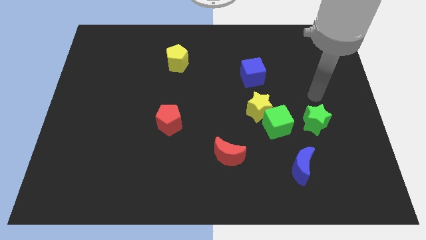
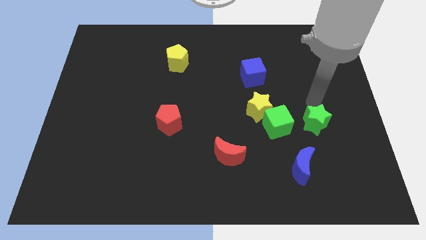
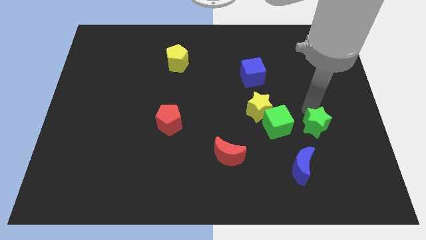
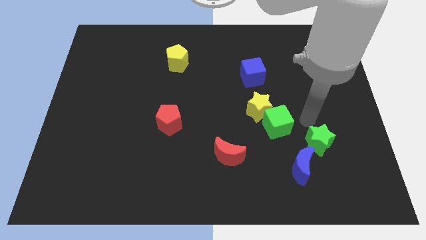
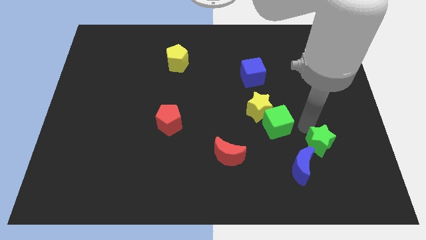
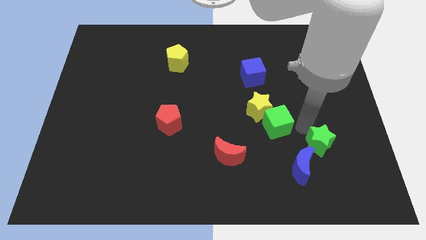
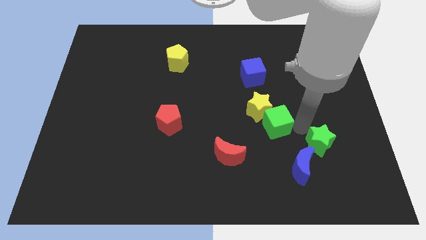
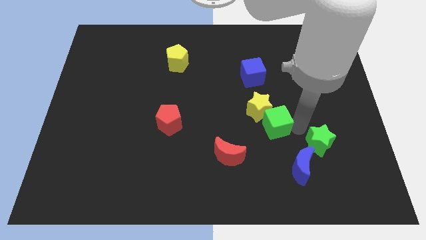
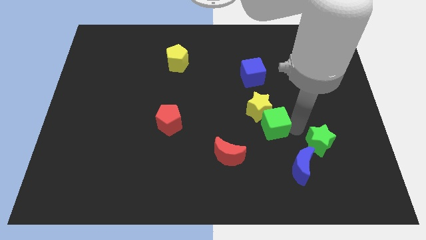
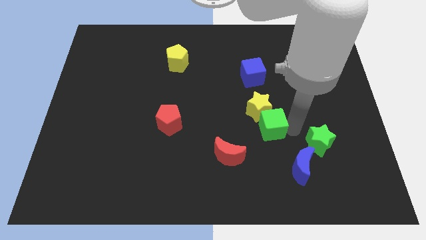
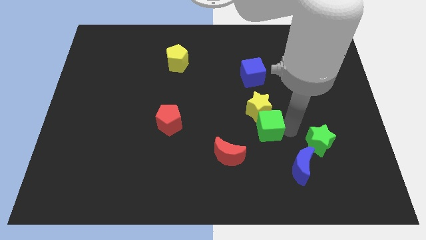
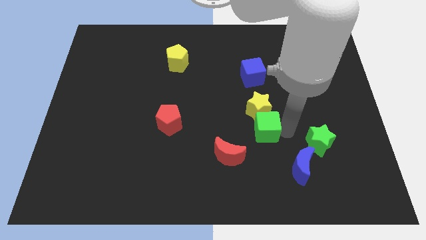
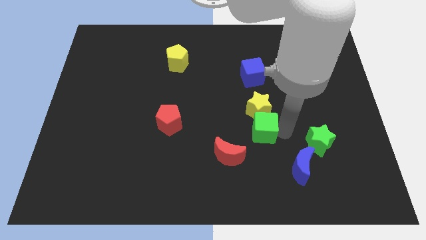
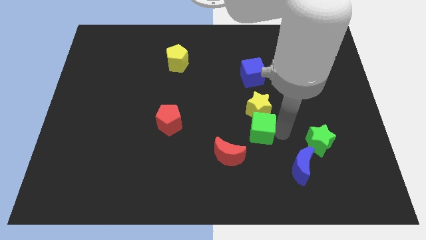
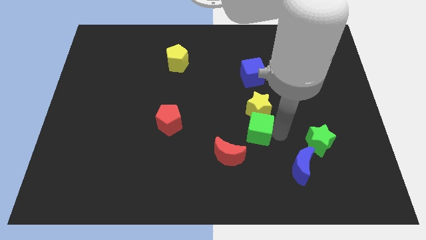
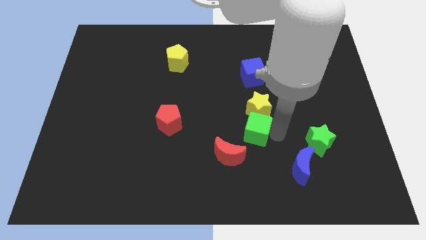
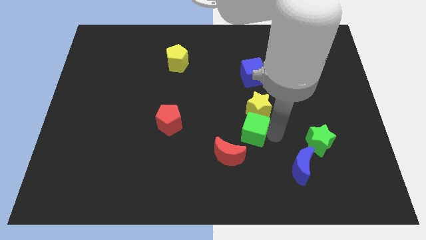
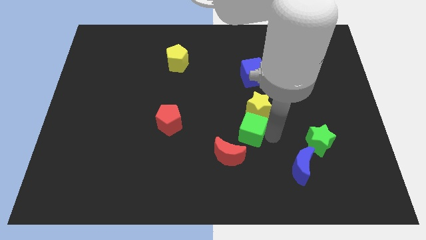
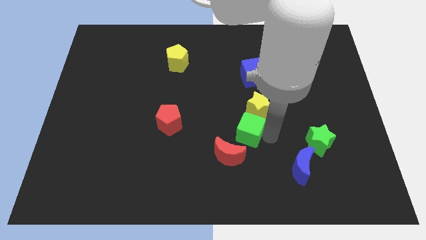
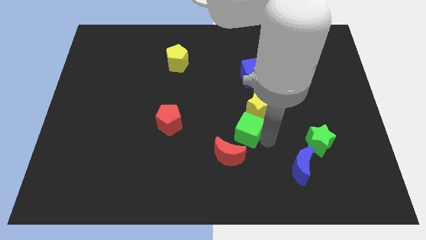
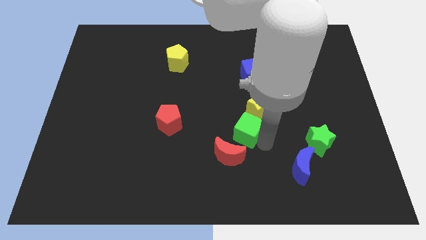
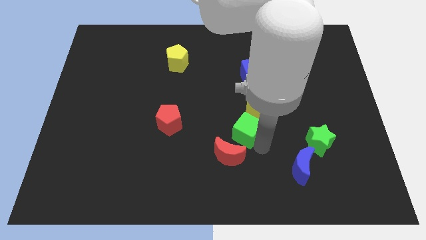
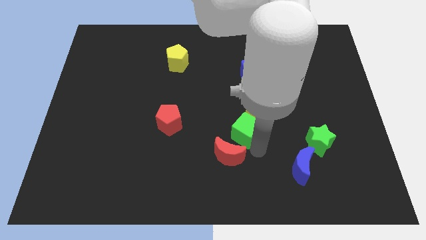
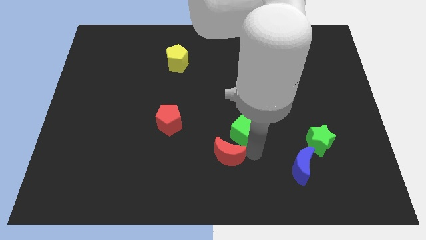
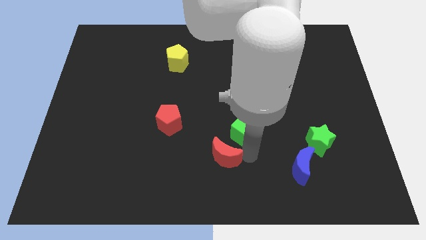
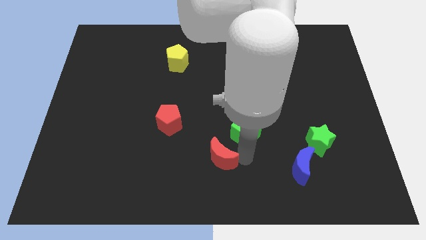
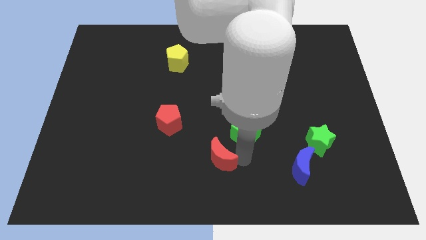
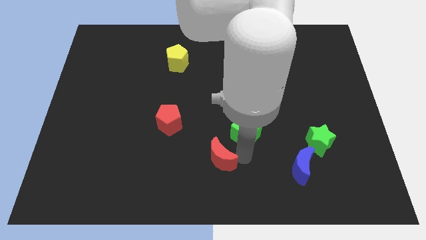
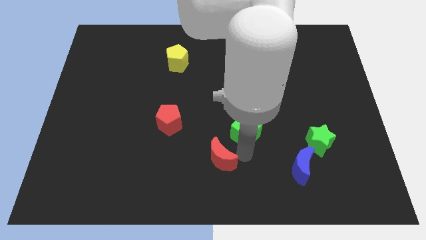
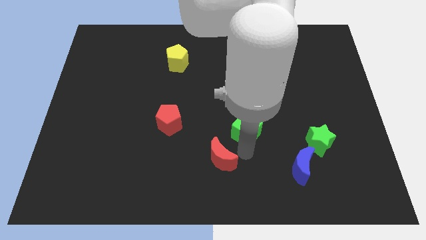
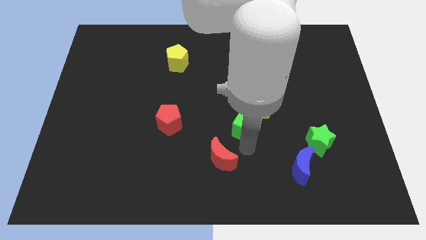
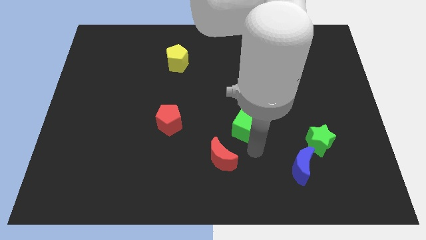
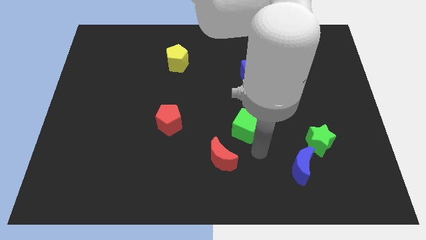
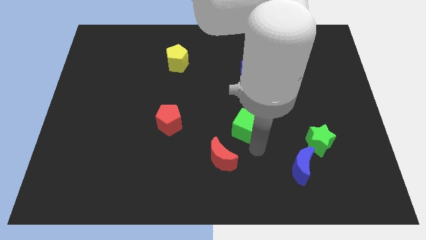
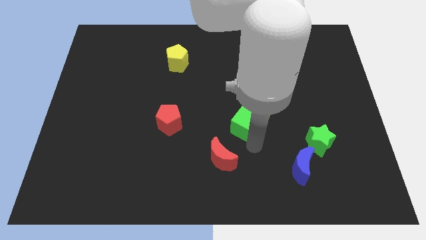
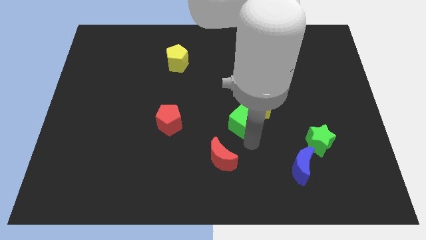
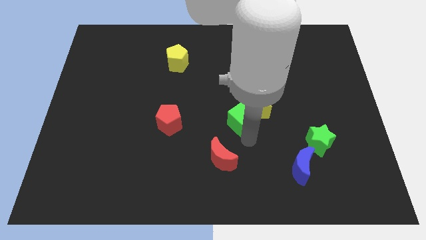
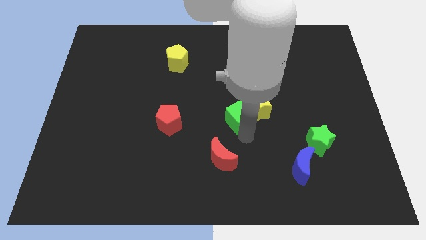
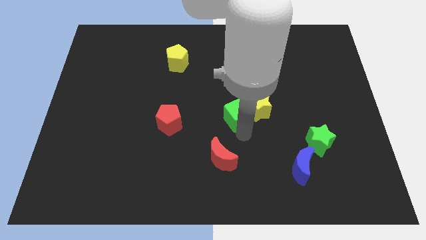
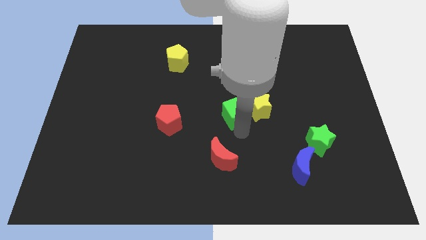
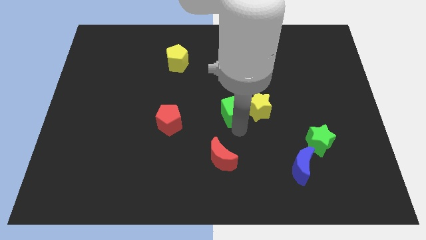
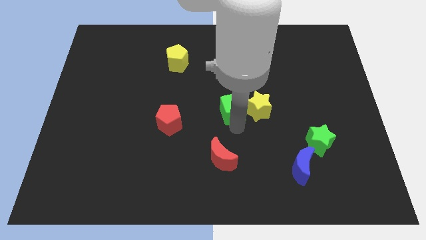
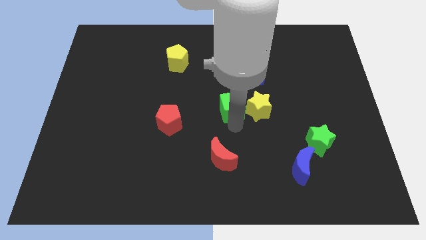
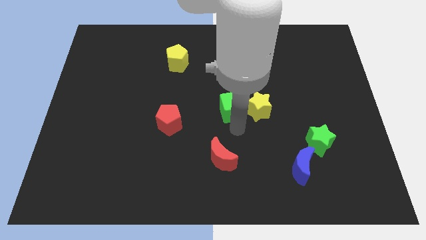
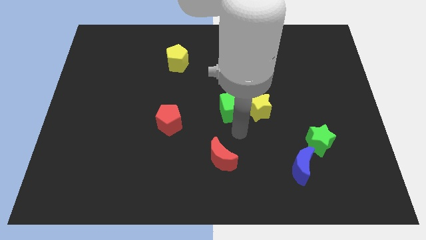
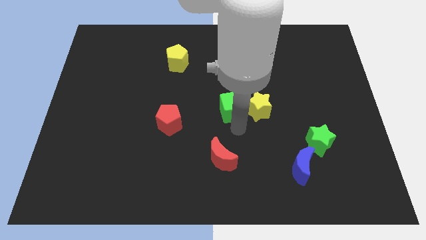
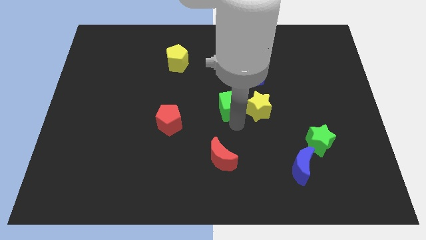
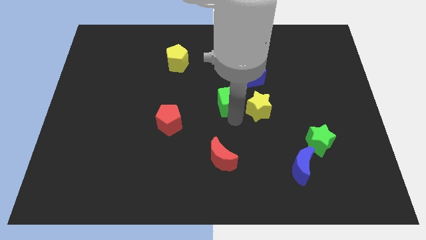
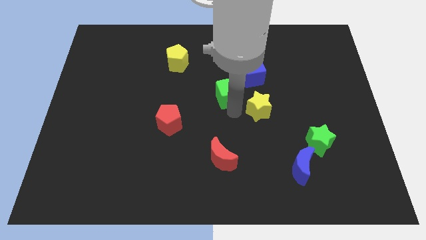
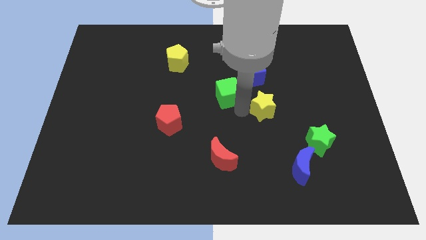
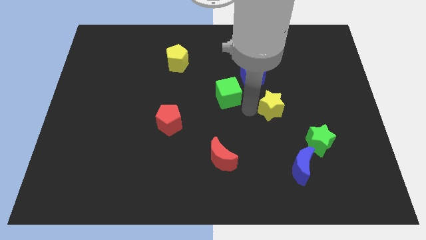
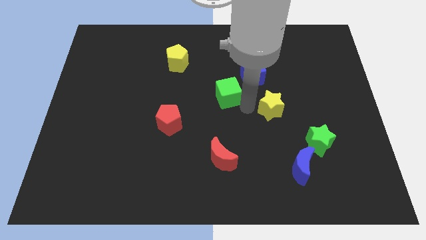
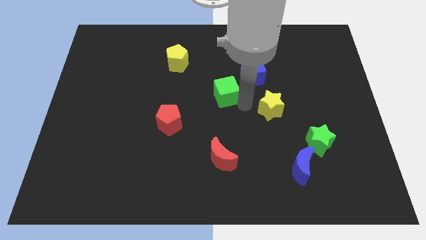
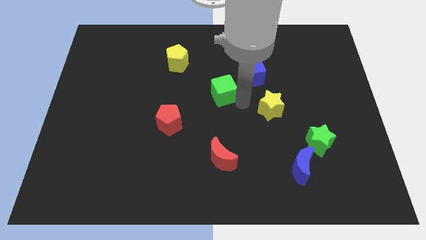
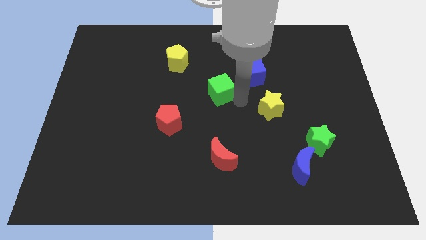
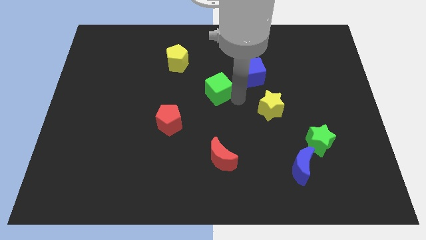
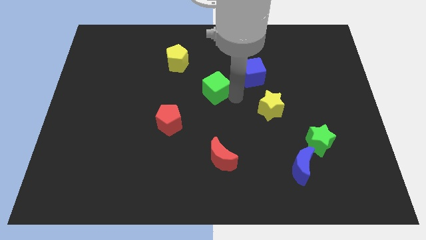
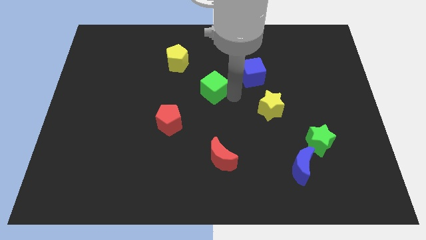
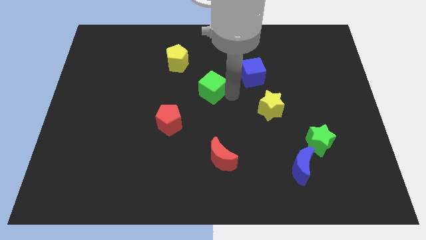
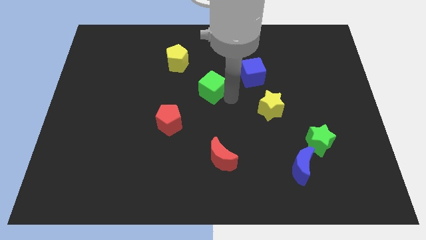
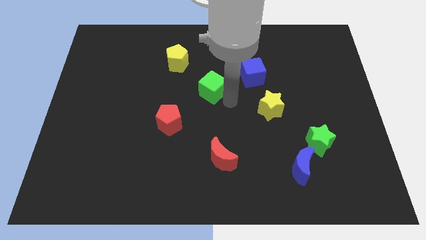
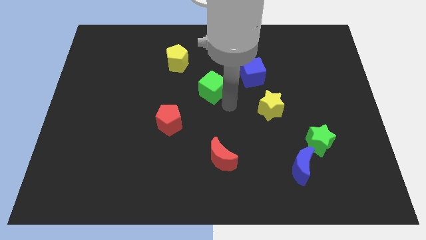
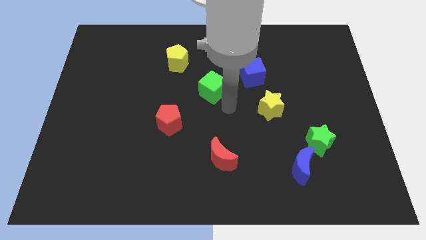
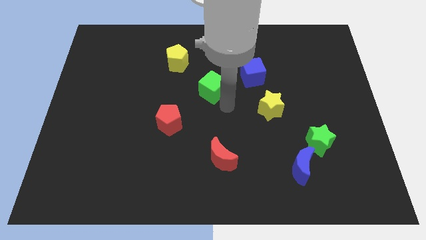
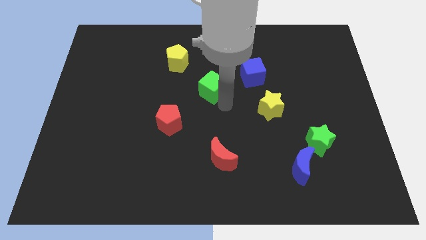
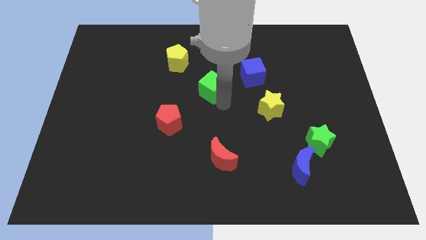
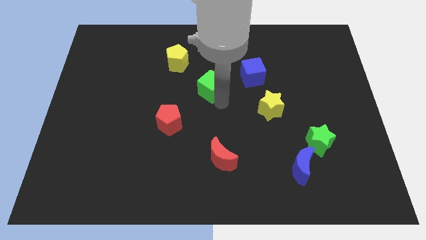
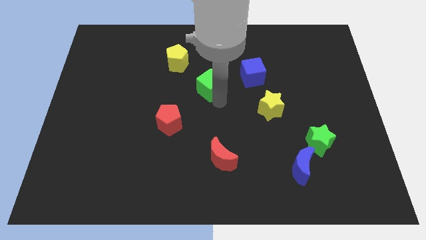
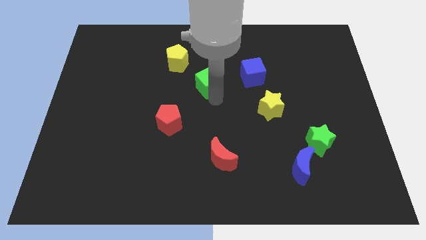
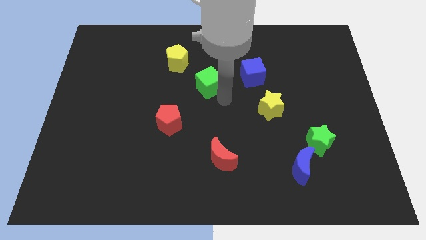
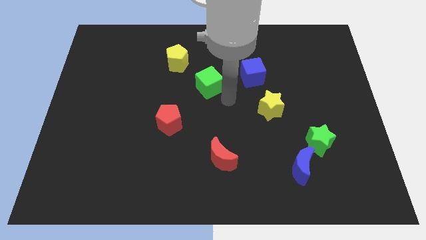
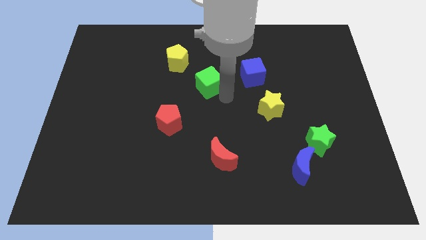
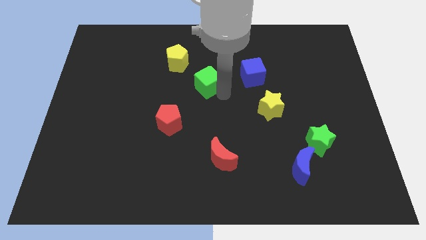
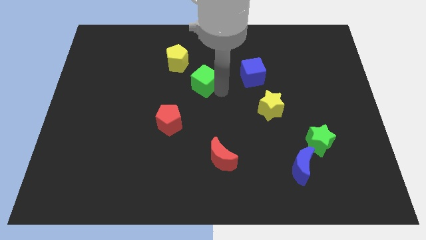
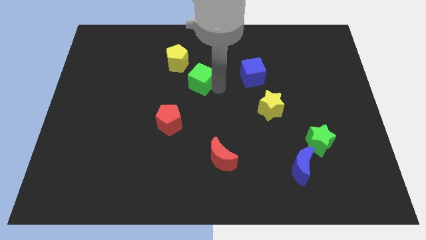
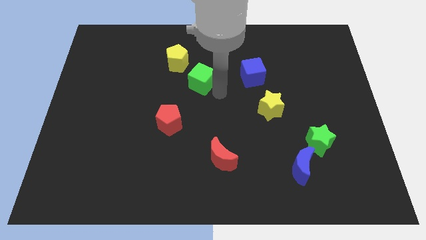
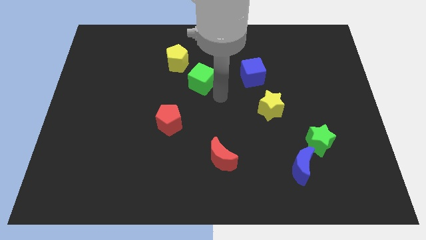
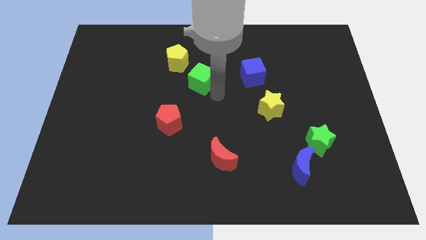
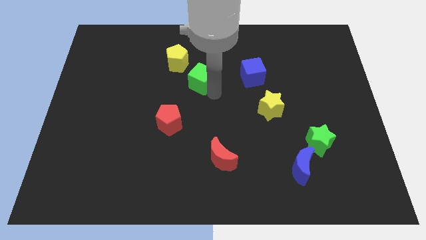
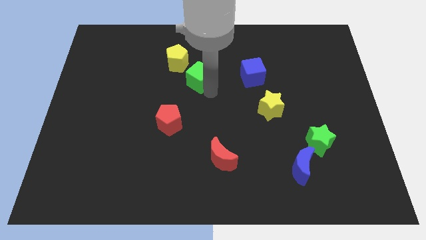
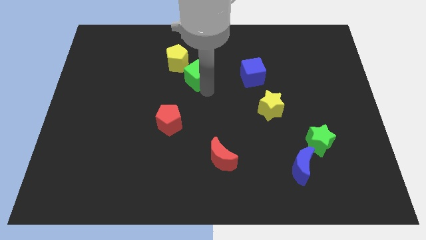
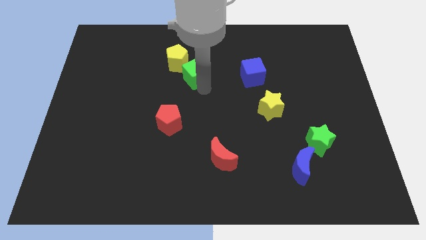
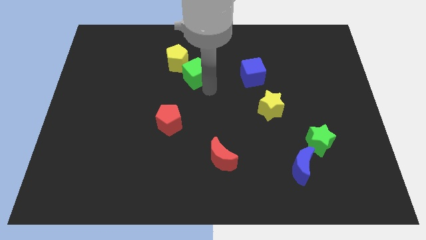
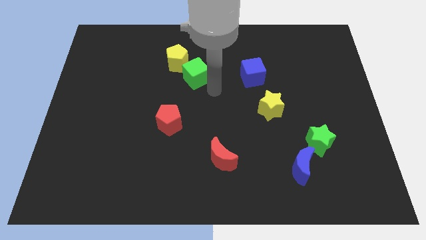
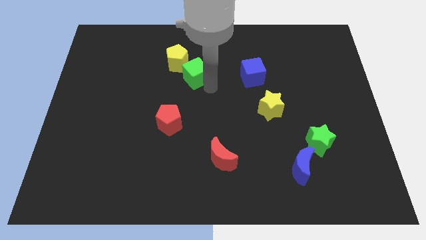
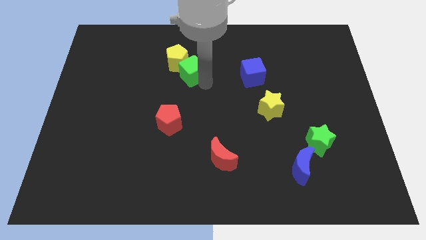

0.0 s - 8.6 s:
move the green cube to the yellow pentagon
